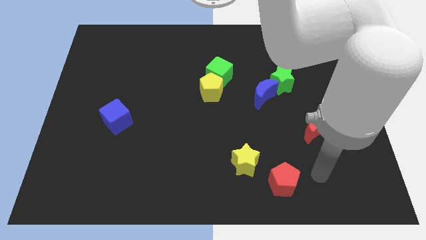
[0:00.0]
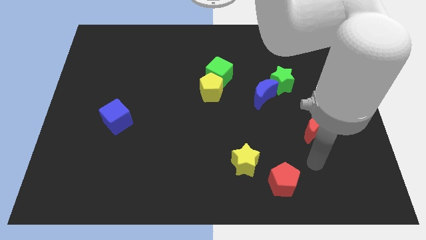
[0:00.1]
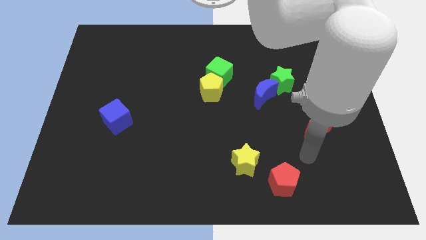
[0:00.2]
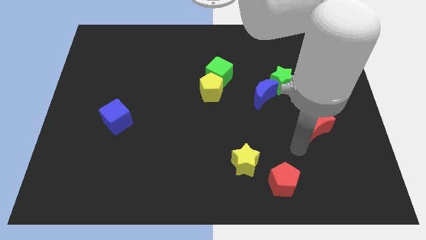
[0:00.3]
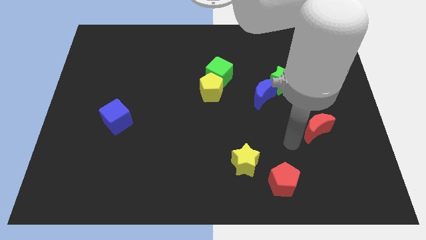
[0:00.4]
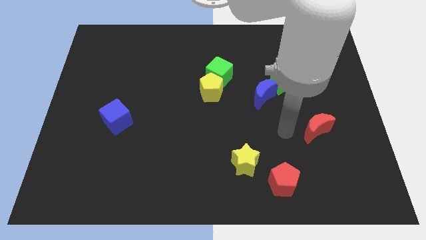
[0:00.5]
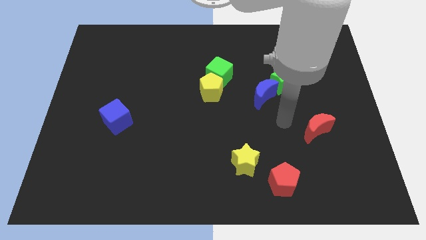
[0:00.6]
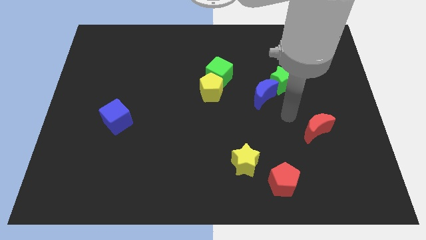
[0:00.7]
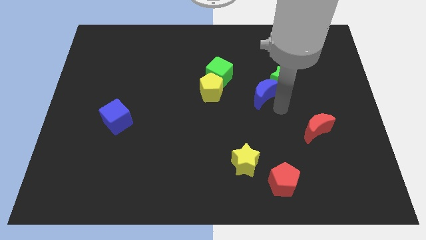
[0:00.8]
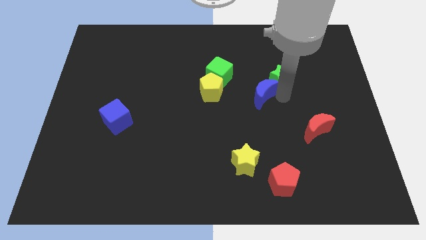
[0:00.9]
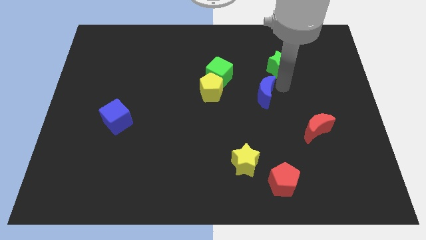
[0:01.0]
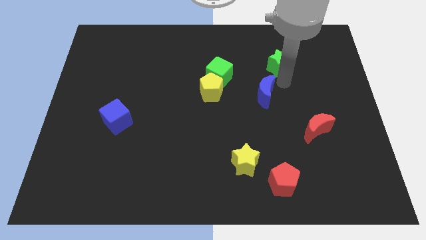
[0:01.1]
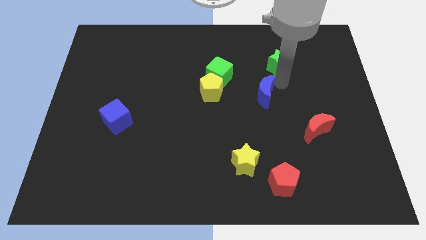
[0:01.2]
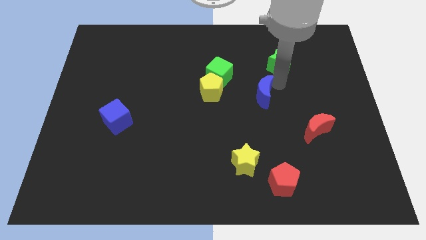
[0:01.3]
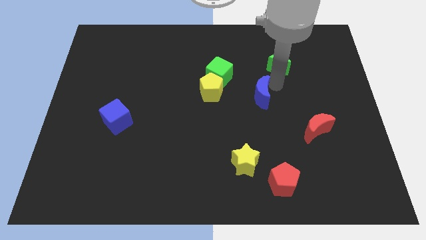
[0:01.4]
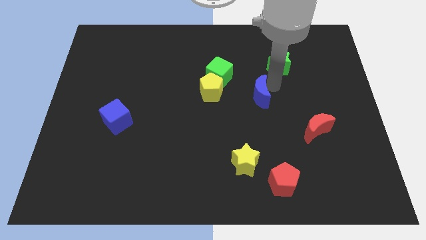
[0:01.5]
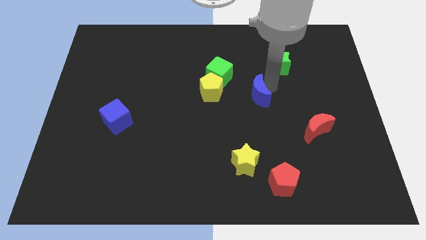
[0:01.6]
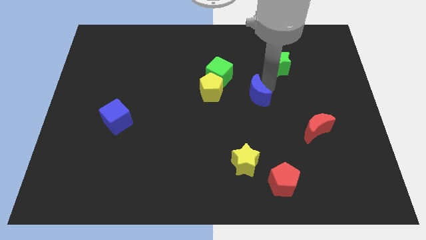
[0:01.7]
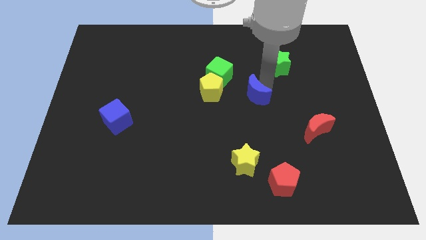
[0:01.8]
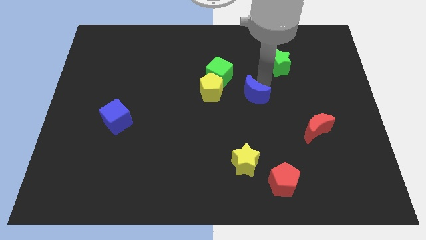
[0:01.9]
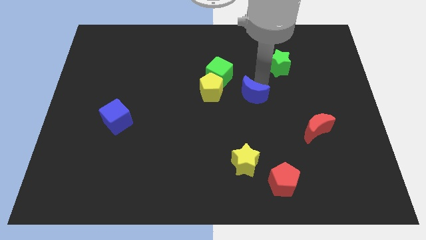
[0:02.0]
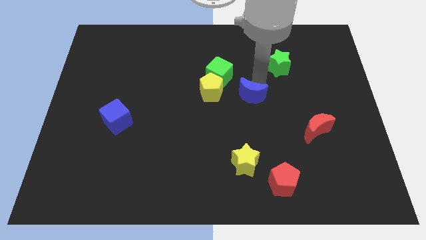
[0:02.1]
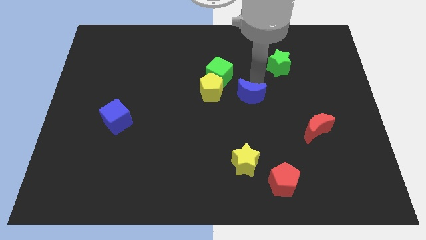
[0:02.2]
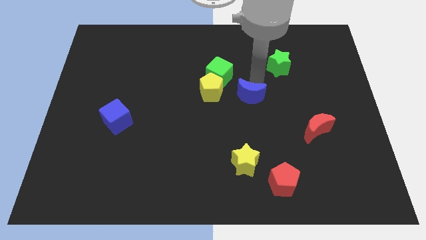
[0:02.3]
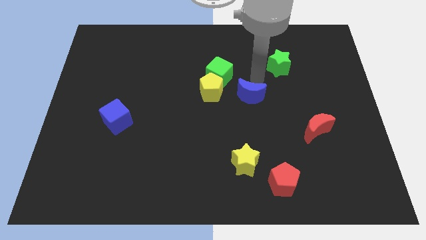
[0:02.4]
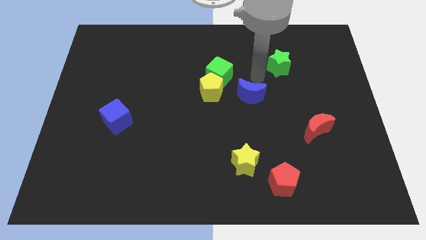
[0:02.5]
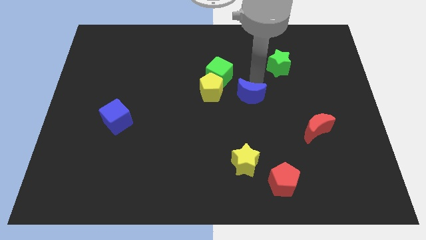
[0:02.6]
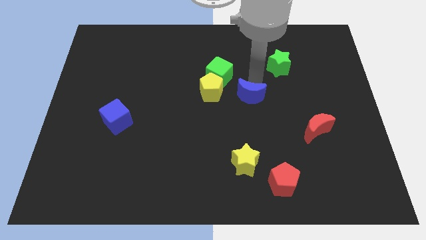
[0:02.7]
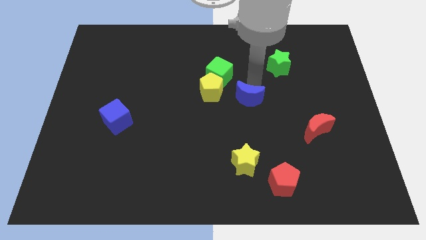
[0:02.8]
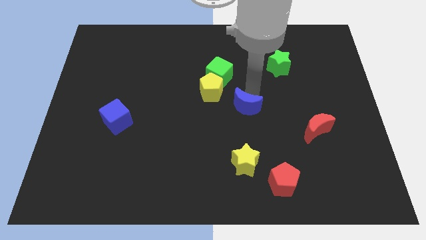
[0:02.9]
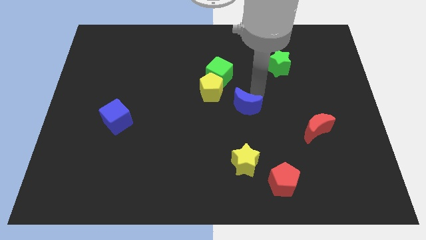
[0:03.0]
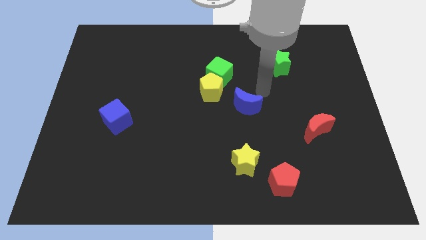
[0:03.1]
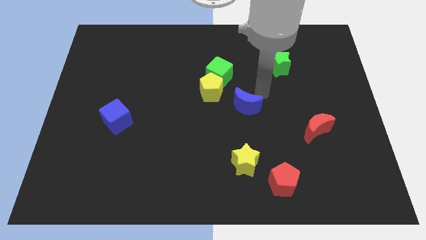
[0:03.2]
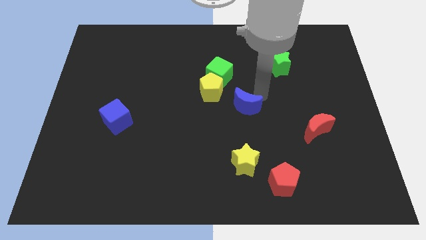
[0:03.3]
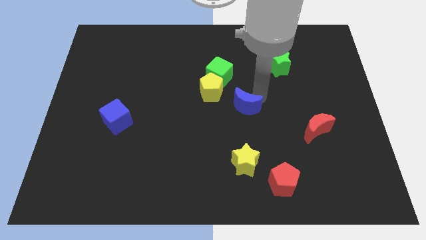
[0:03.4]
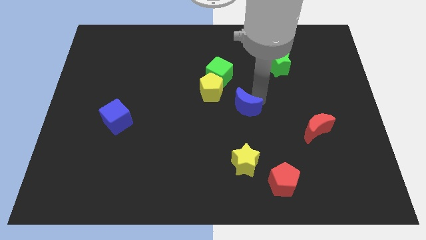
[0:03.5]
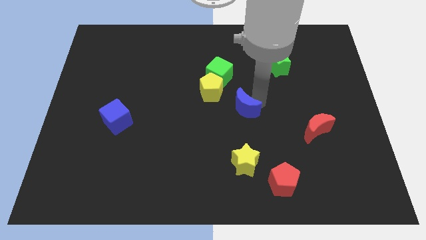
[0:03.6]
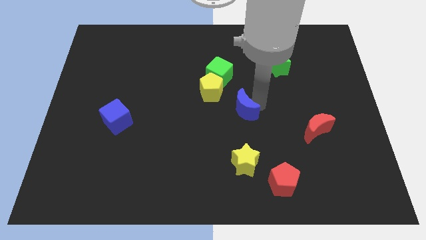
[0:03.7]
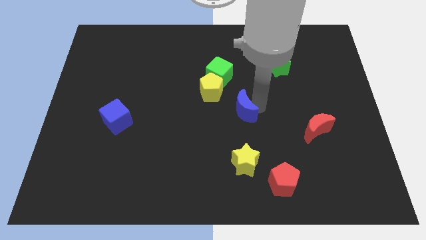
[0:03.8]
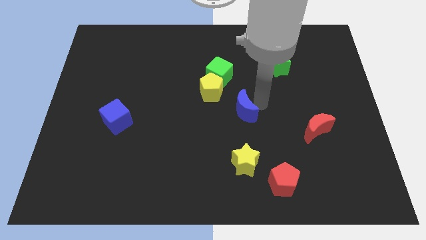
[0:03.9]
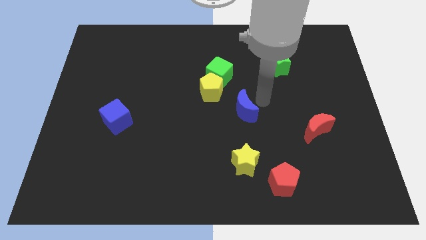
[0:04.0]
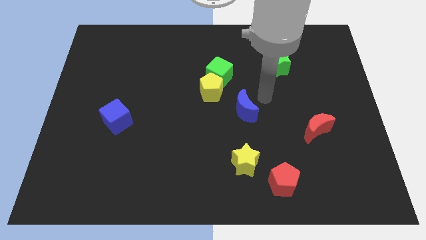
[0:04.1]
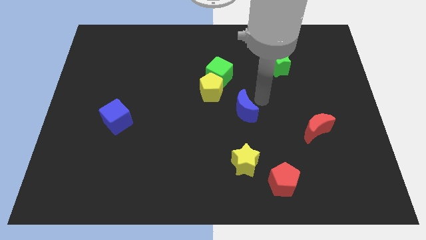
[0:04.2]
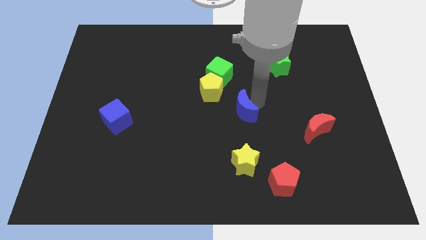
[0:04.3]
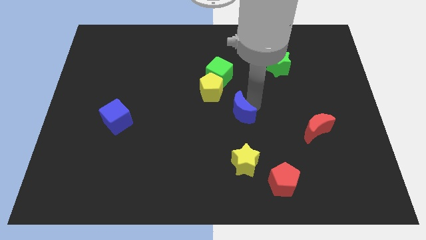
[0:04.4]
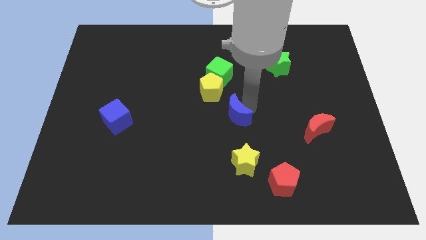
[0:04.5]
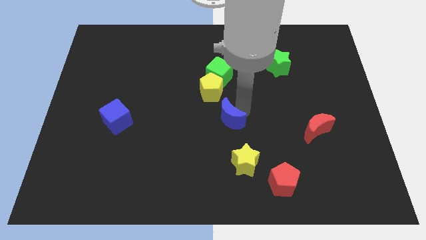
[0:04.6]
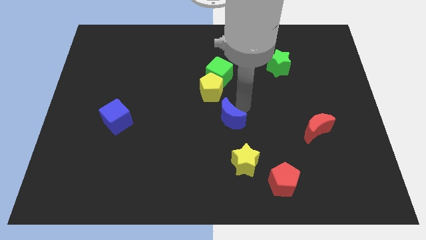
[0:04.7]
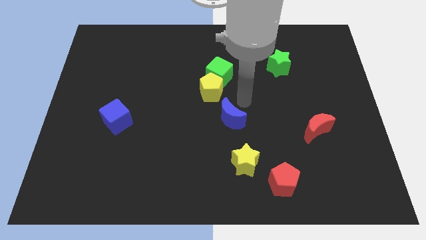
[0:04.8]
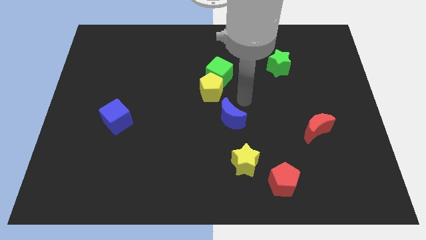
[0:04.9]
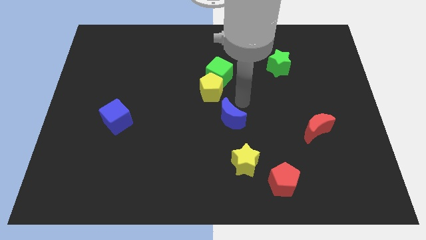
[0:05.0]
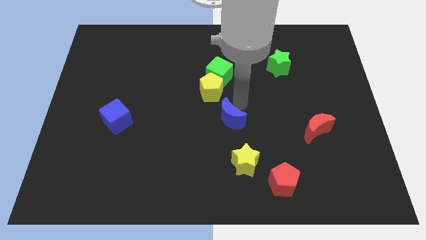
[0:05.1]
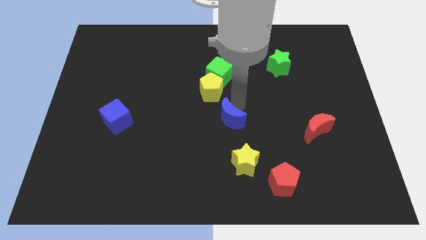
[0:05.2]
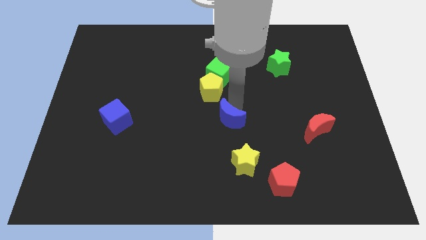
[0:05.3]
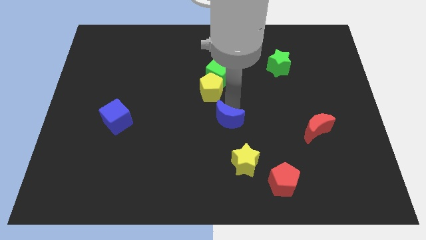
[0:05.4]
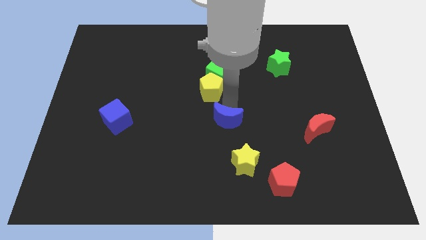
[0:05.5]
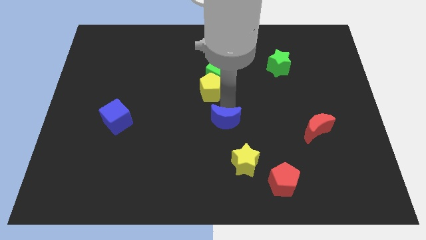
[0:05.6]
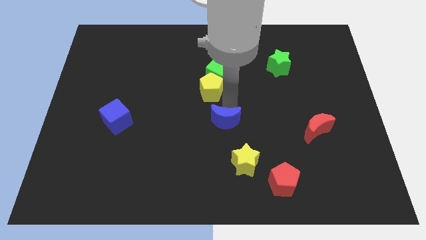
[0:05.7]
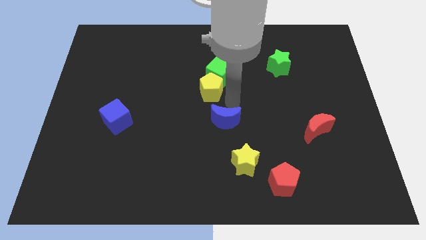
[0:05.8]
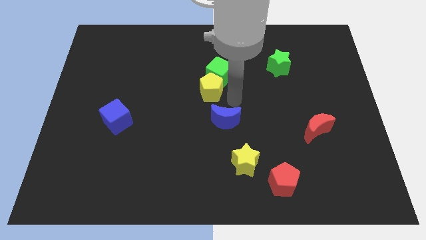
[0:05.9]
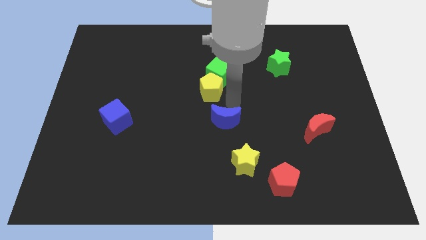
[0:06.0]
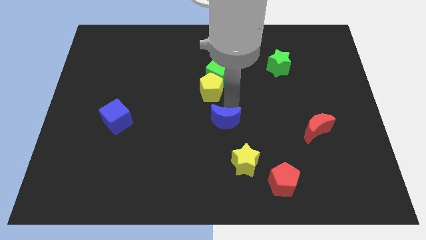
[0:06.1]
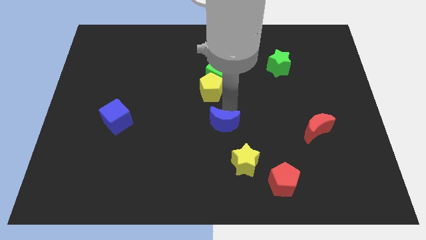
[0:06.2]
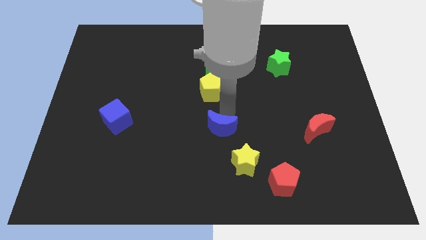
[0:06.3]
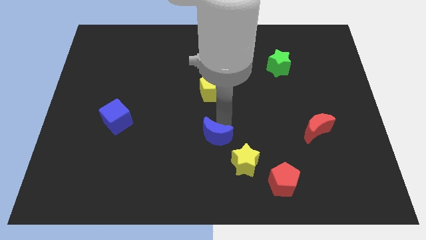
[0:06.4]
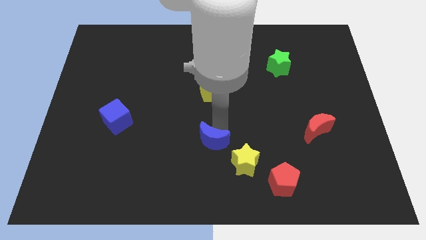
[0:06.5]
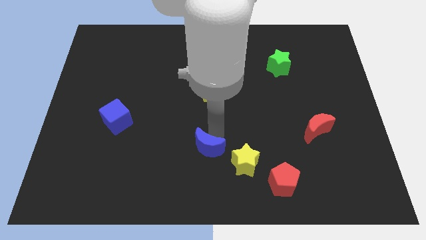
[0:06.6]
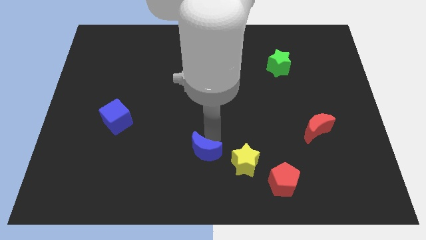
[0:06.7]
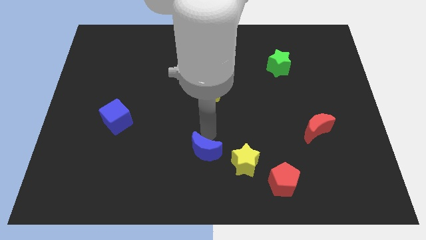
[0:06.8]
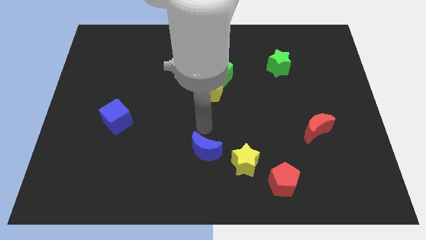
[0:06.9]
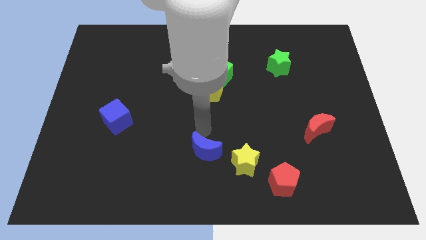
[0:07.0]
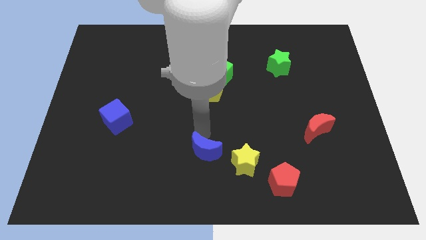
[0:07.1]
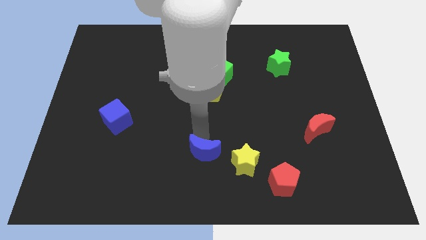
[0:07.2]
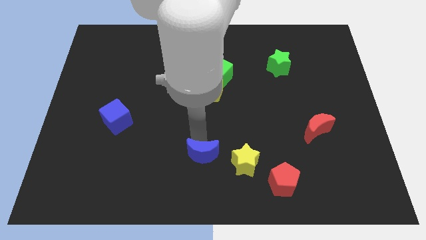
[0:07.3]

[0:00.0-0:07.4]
put the blue moon to the bottom side
